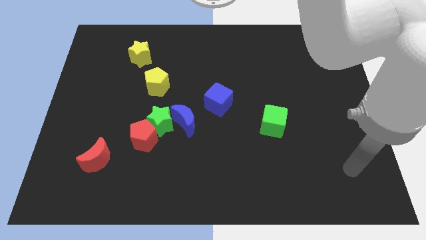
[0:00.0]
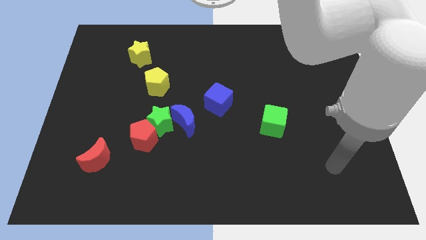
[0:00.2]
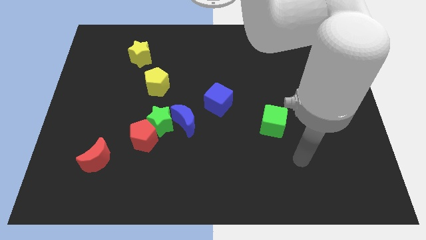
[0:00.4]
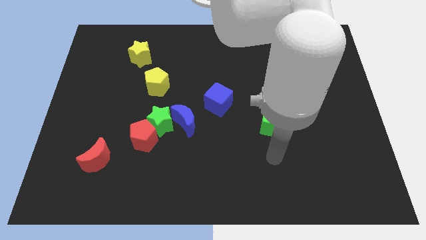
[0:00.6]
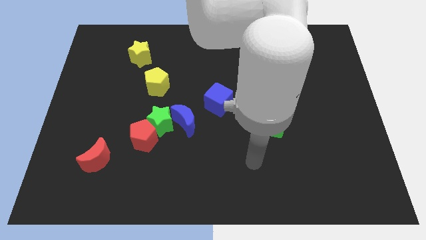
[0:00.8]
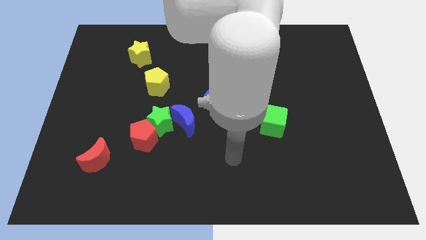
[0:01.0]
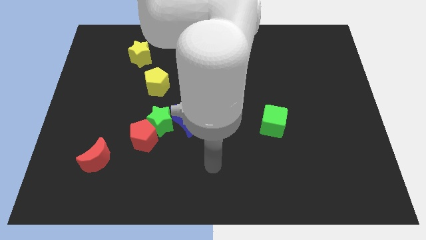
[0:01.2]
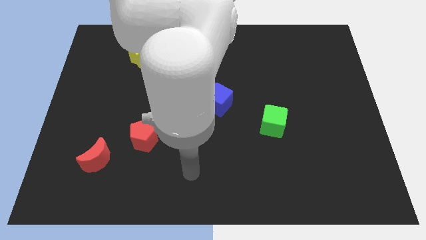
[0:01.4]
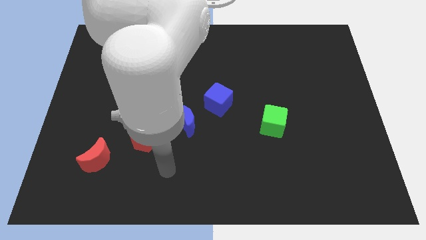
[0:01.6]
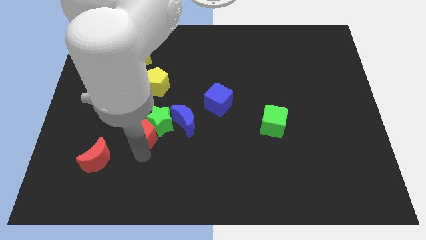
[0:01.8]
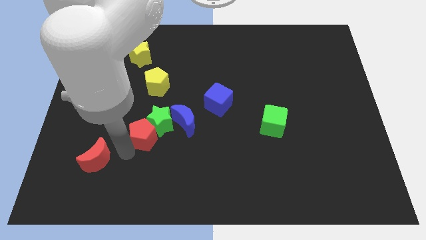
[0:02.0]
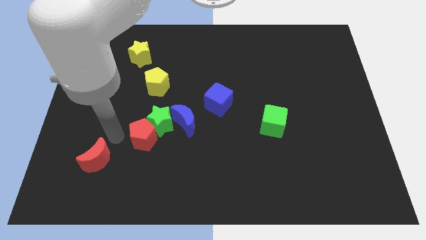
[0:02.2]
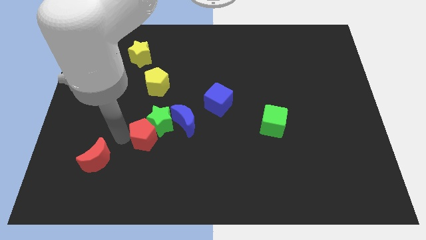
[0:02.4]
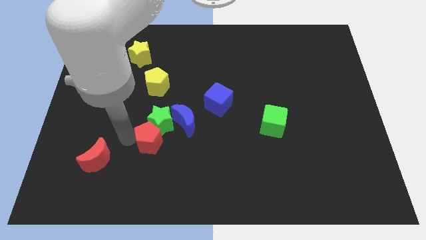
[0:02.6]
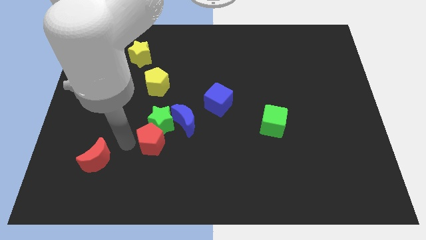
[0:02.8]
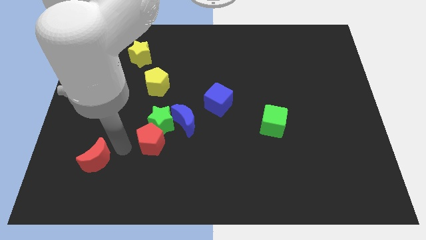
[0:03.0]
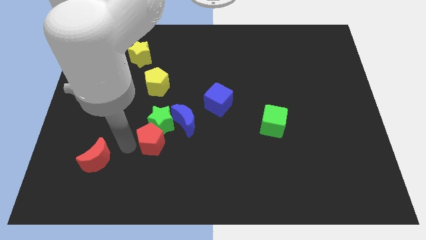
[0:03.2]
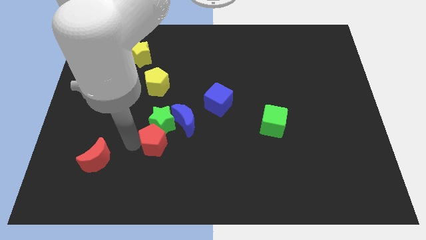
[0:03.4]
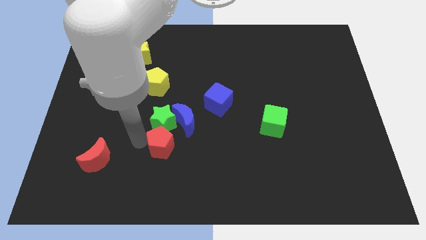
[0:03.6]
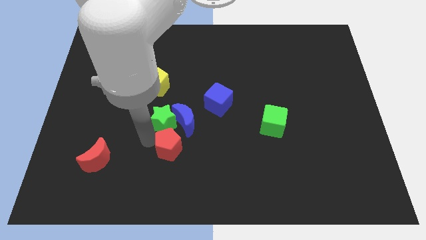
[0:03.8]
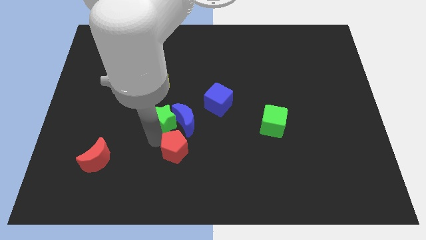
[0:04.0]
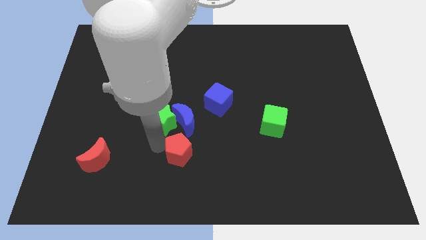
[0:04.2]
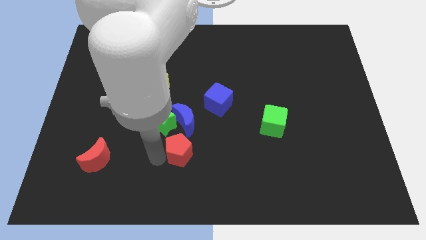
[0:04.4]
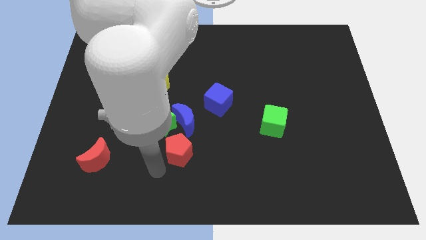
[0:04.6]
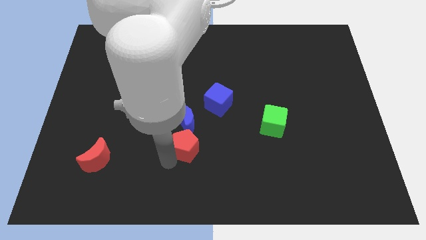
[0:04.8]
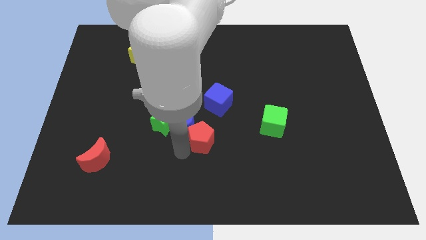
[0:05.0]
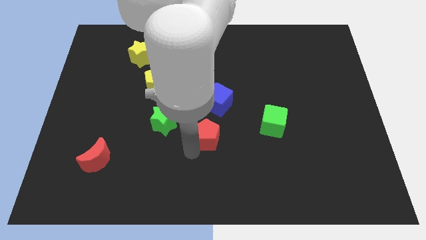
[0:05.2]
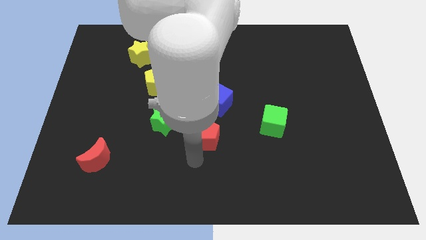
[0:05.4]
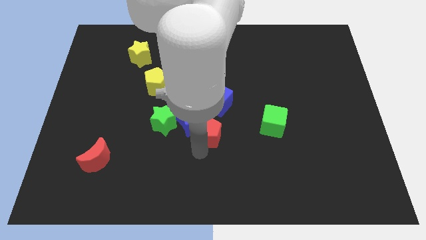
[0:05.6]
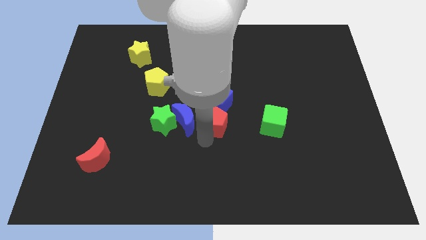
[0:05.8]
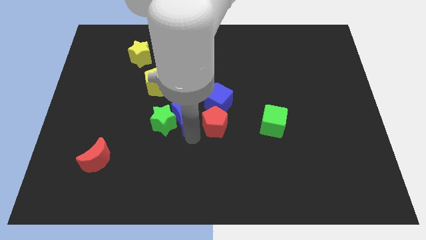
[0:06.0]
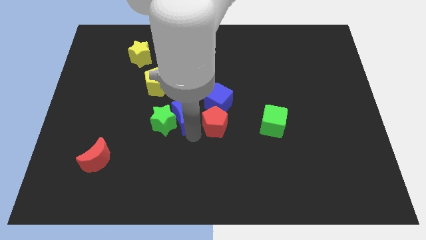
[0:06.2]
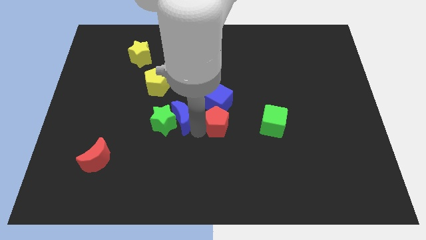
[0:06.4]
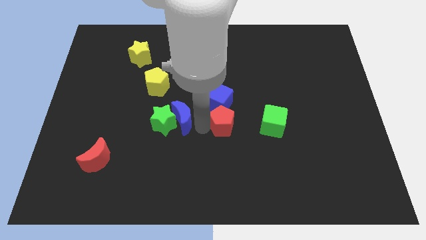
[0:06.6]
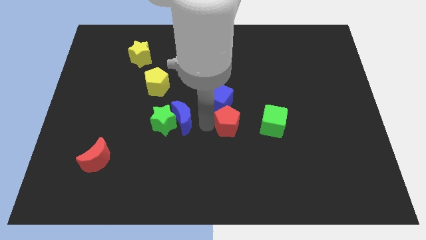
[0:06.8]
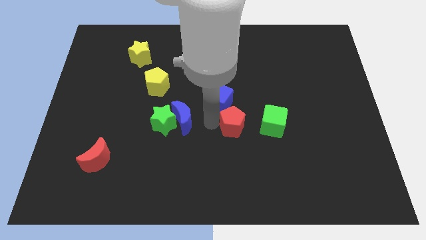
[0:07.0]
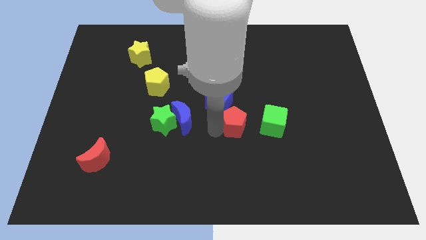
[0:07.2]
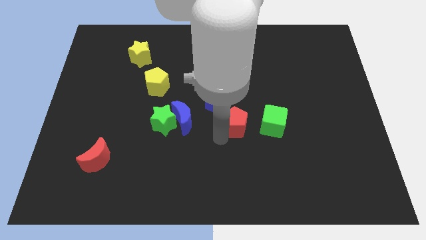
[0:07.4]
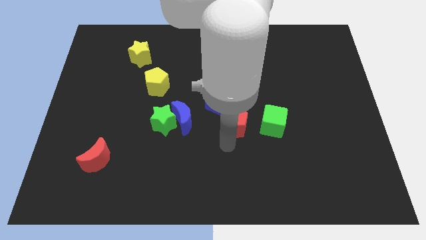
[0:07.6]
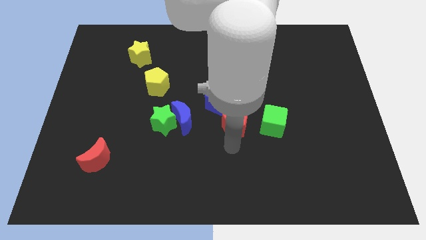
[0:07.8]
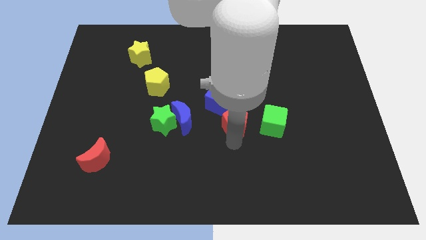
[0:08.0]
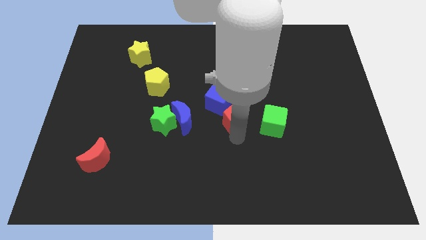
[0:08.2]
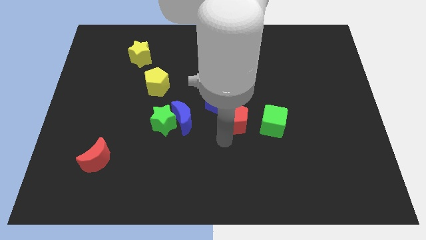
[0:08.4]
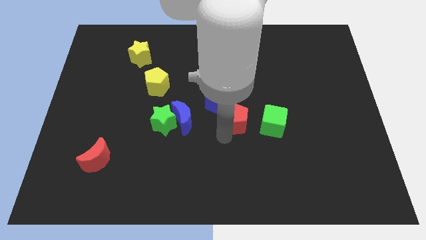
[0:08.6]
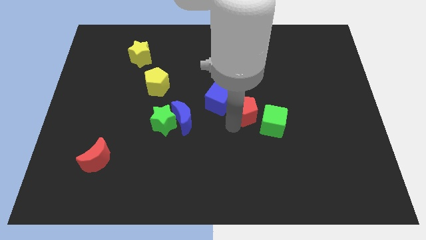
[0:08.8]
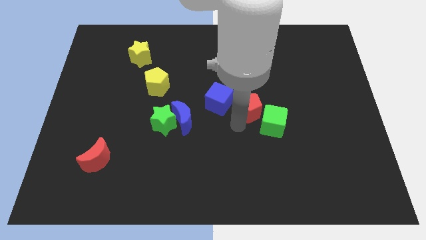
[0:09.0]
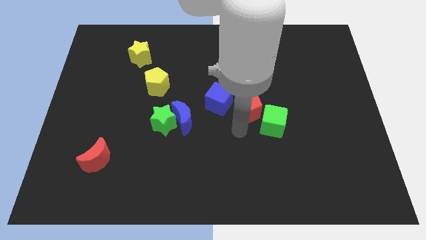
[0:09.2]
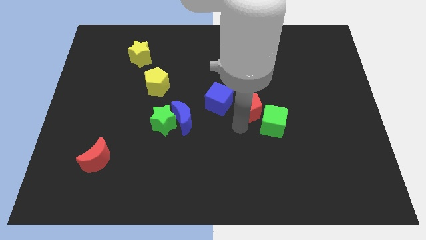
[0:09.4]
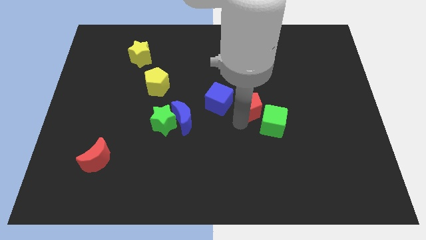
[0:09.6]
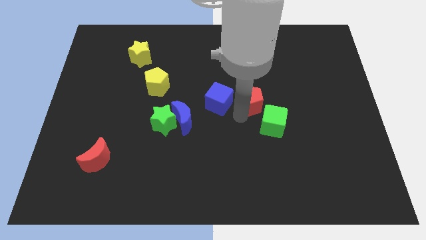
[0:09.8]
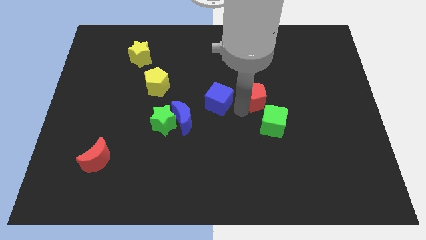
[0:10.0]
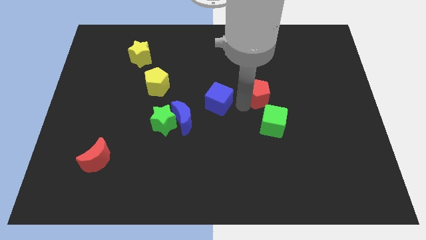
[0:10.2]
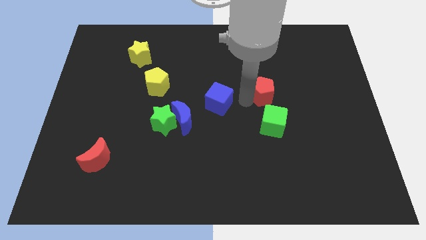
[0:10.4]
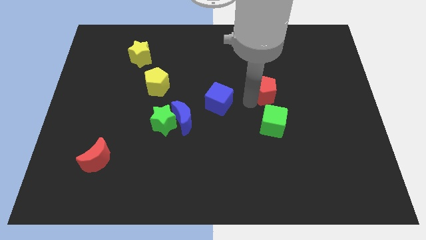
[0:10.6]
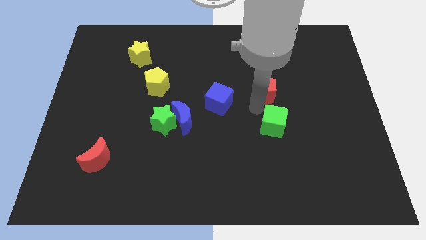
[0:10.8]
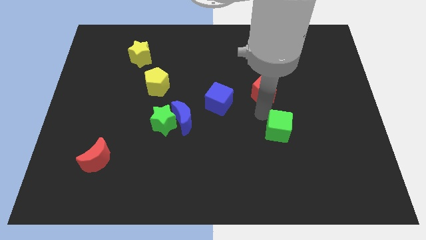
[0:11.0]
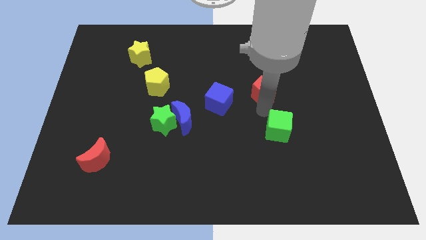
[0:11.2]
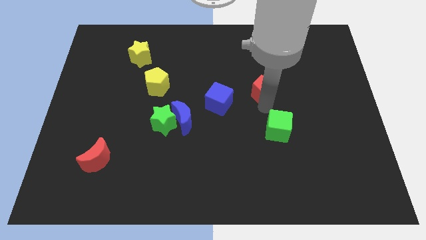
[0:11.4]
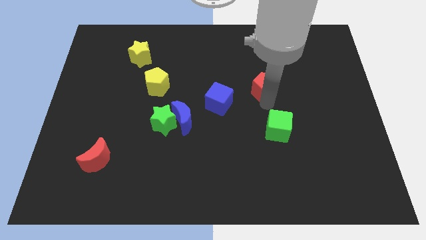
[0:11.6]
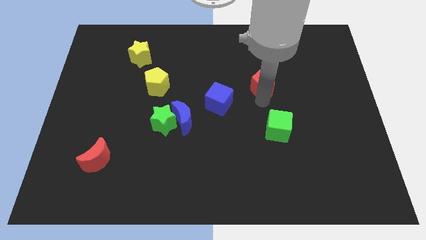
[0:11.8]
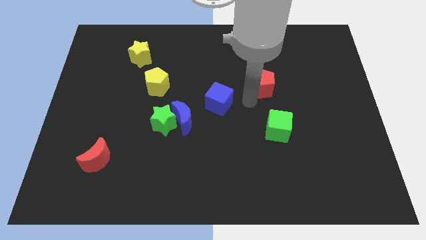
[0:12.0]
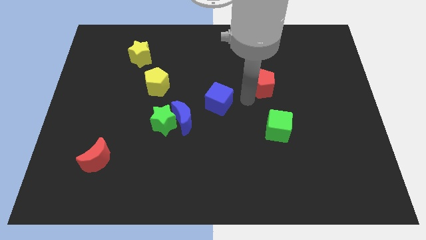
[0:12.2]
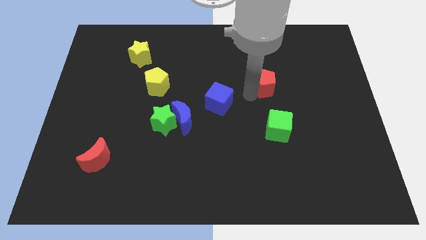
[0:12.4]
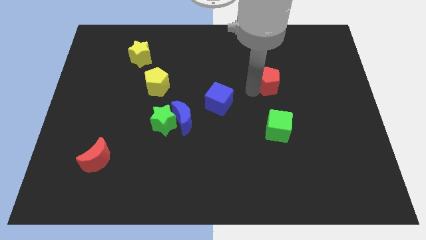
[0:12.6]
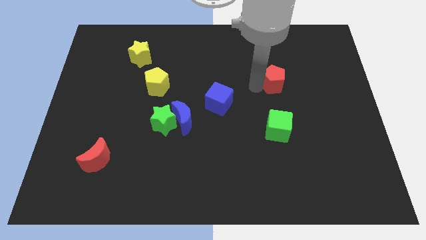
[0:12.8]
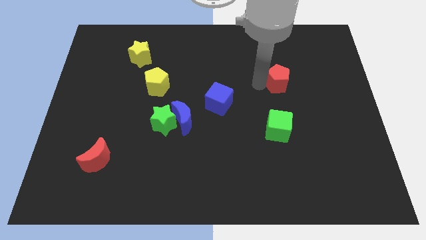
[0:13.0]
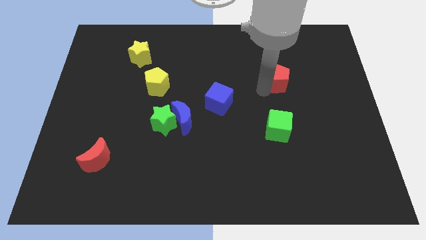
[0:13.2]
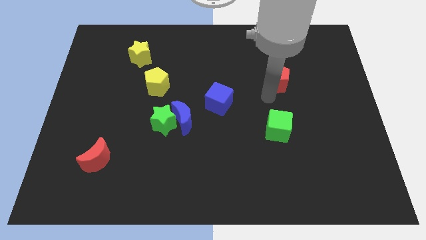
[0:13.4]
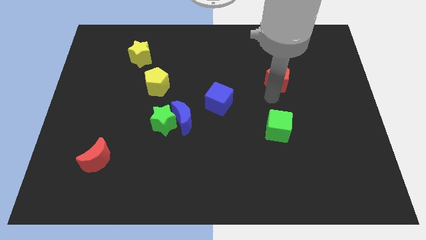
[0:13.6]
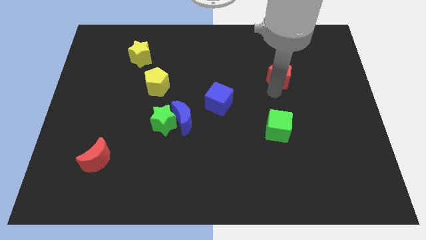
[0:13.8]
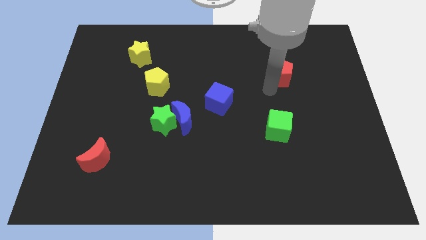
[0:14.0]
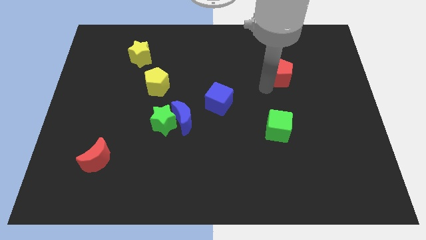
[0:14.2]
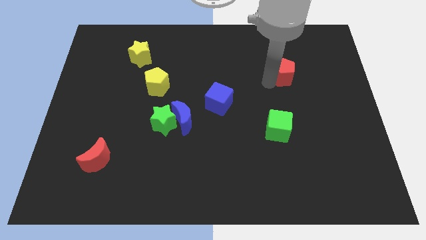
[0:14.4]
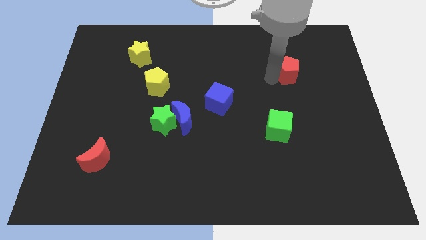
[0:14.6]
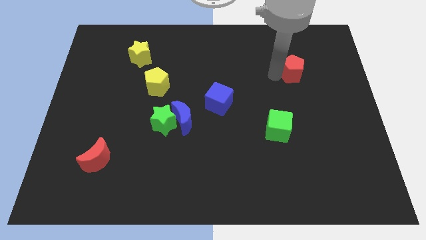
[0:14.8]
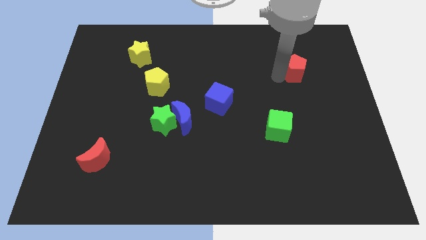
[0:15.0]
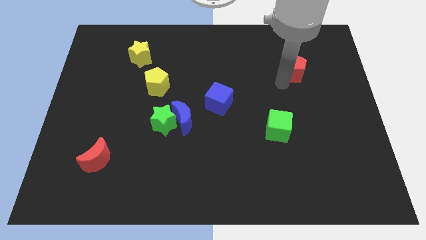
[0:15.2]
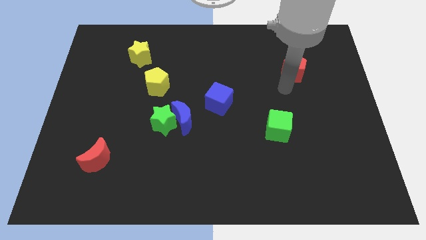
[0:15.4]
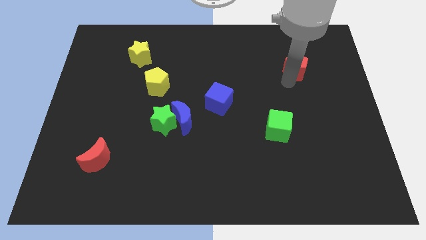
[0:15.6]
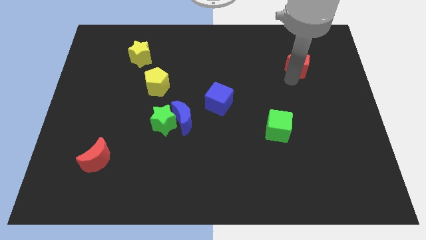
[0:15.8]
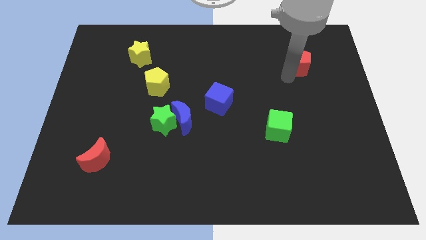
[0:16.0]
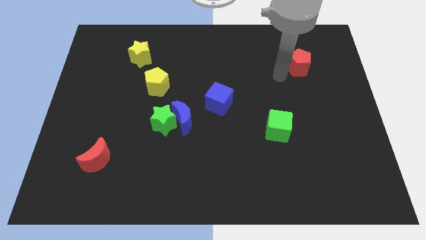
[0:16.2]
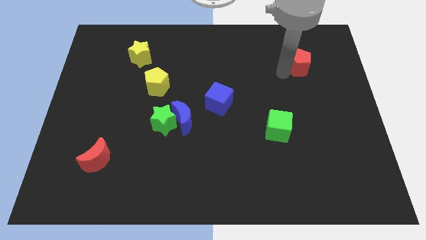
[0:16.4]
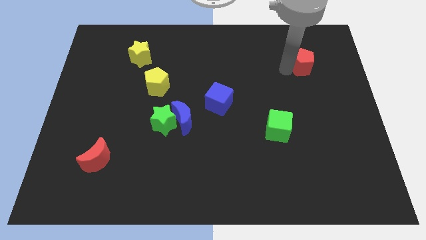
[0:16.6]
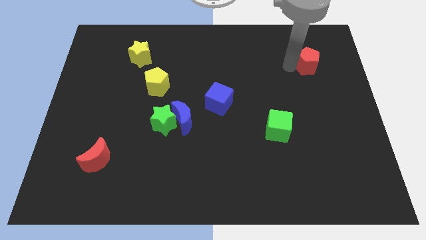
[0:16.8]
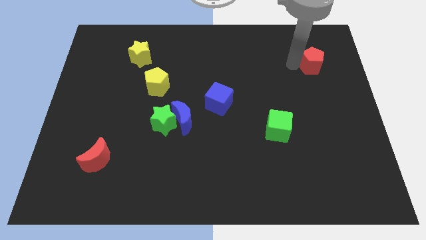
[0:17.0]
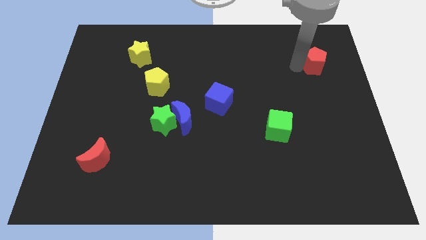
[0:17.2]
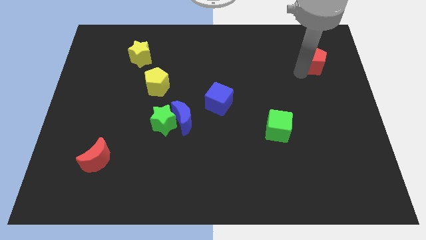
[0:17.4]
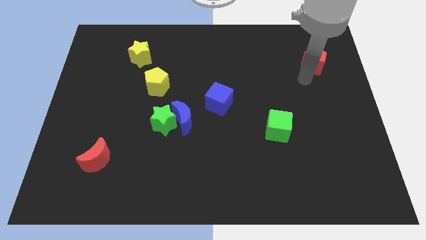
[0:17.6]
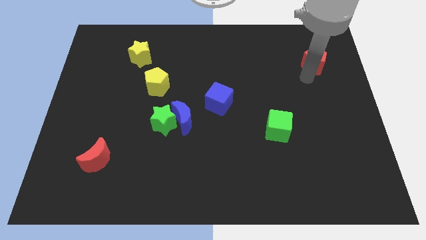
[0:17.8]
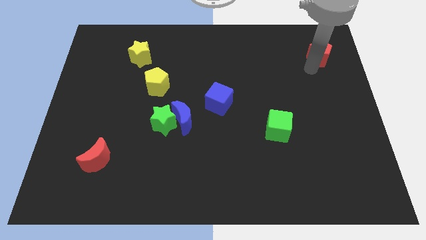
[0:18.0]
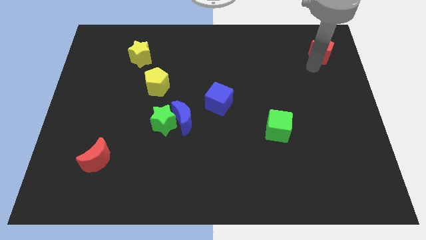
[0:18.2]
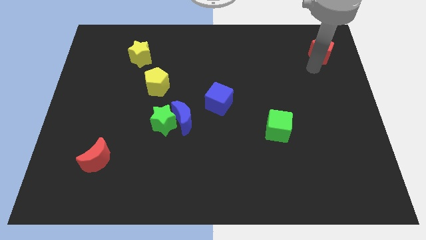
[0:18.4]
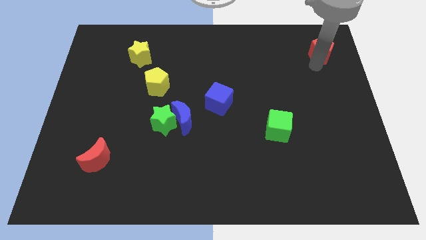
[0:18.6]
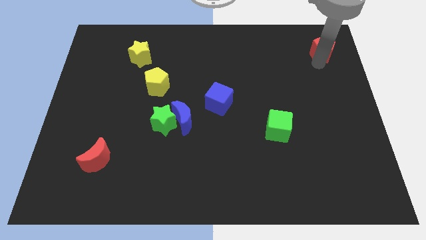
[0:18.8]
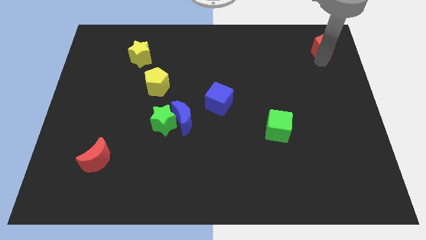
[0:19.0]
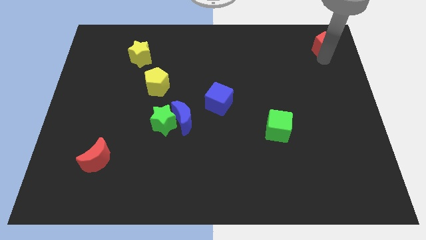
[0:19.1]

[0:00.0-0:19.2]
move the red pentagon to the top right corner
